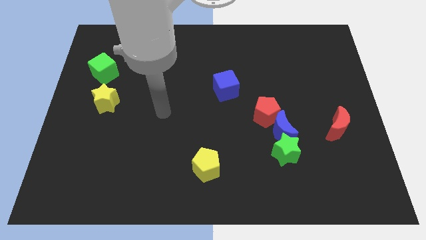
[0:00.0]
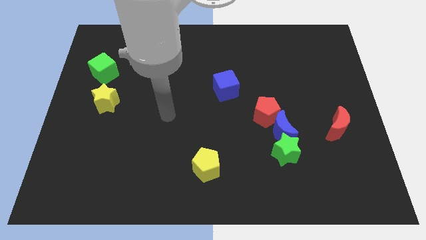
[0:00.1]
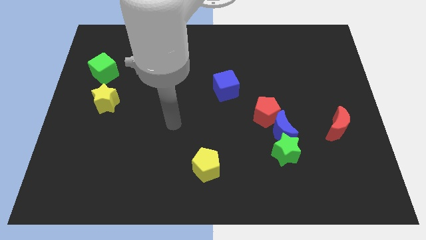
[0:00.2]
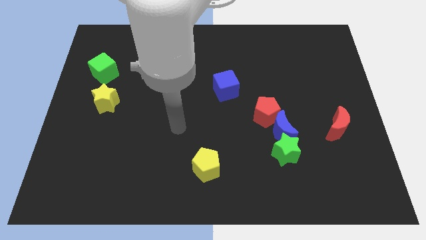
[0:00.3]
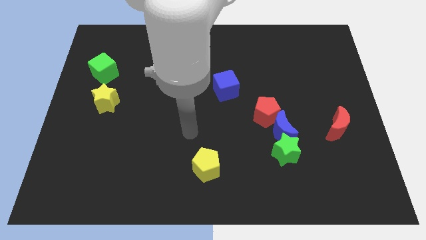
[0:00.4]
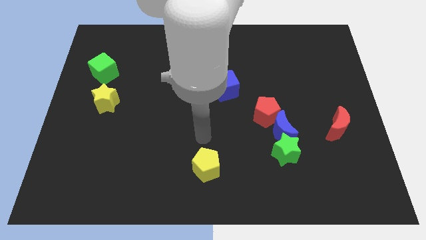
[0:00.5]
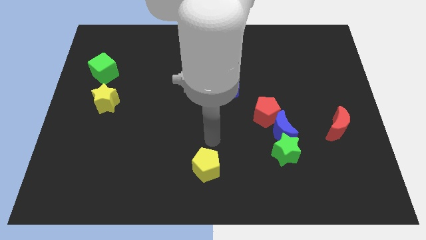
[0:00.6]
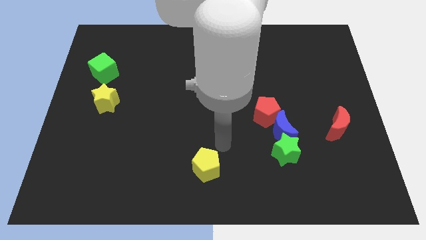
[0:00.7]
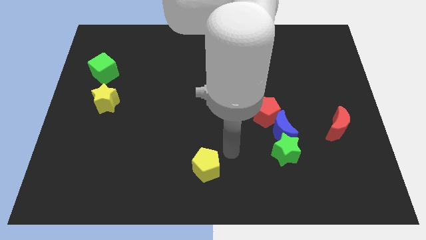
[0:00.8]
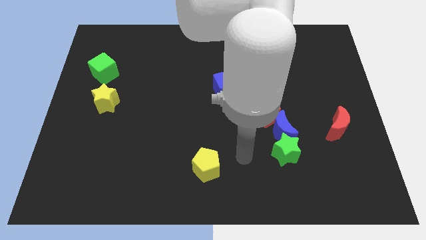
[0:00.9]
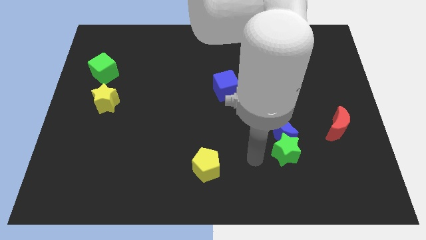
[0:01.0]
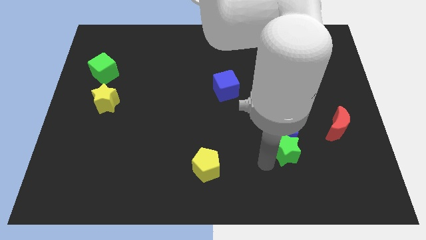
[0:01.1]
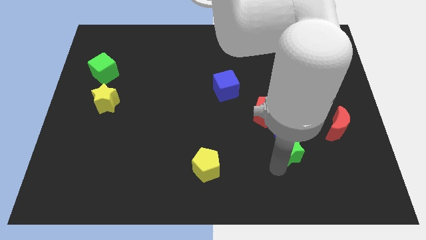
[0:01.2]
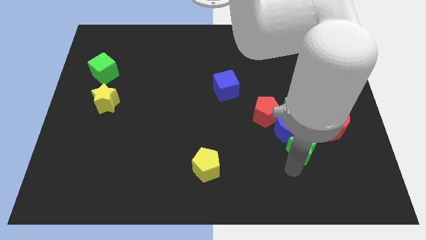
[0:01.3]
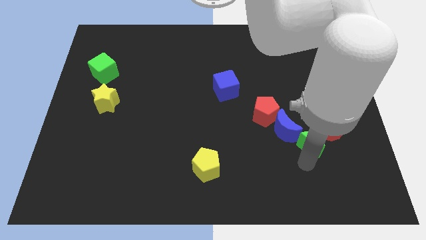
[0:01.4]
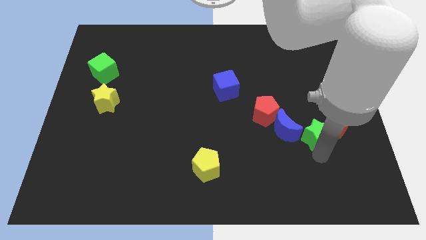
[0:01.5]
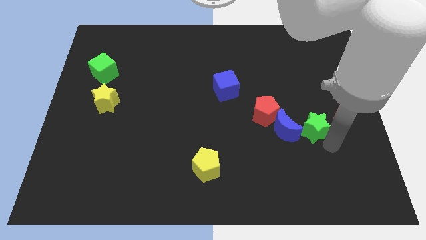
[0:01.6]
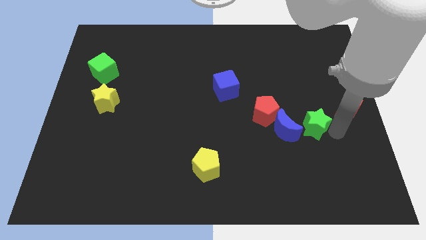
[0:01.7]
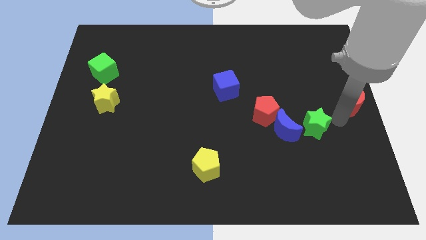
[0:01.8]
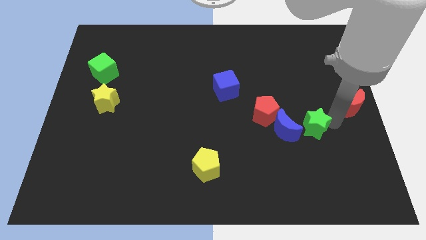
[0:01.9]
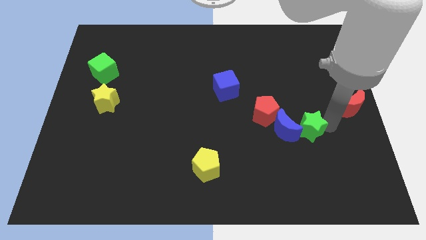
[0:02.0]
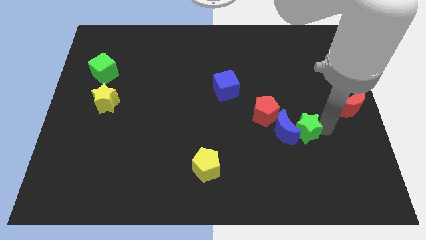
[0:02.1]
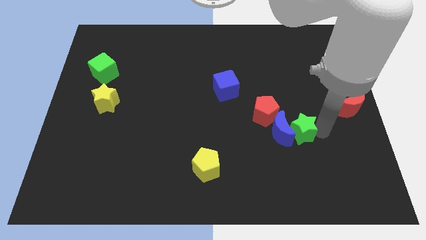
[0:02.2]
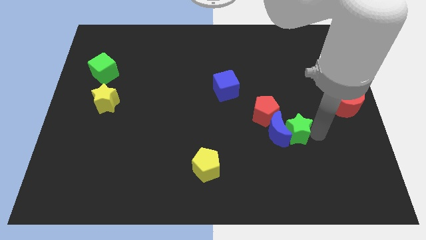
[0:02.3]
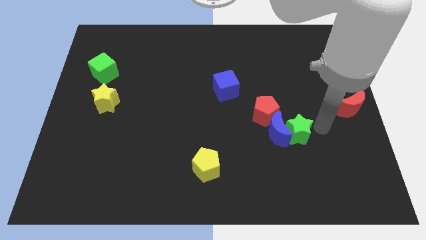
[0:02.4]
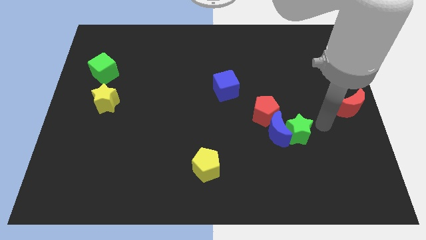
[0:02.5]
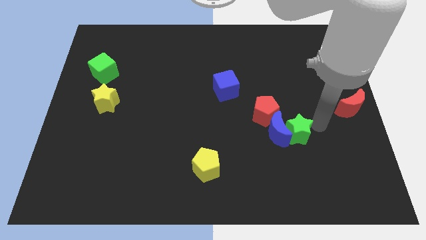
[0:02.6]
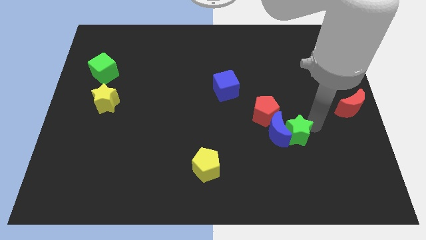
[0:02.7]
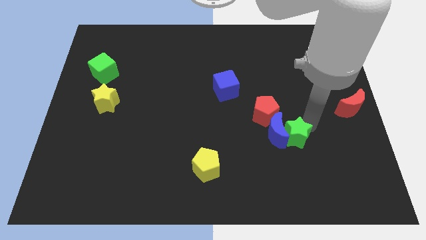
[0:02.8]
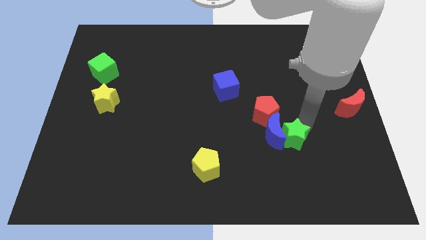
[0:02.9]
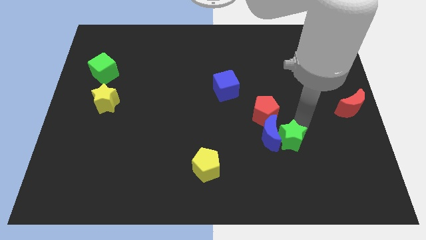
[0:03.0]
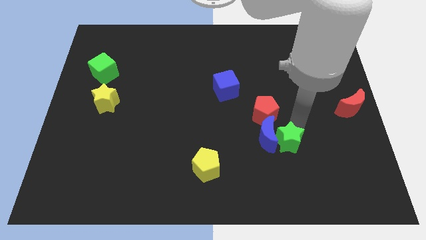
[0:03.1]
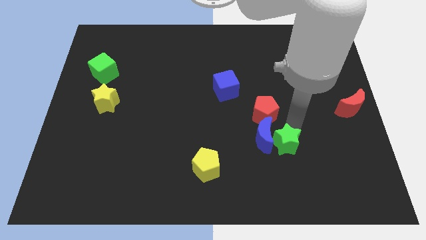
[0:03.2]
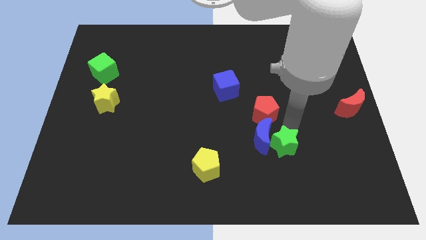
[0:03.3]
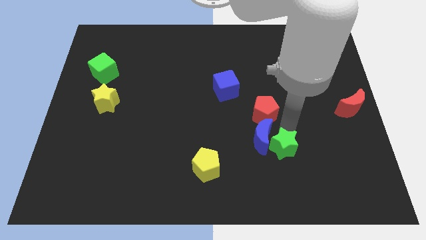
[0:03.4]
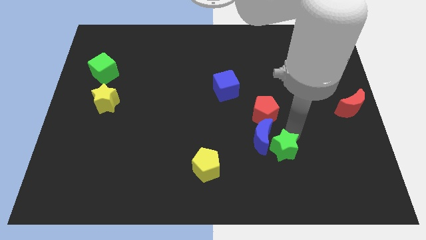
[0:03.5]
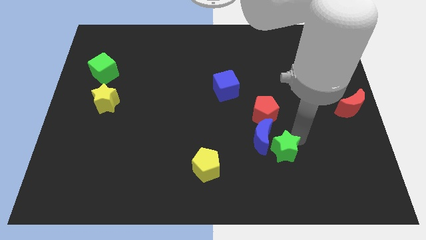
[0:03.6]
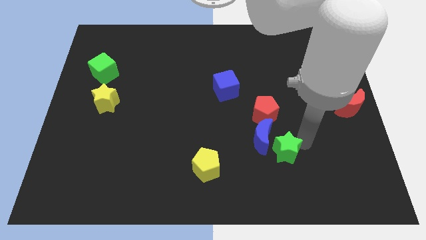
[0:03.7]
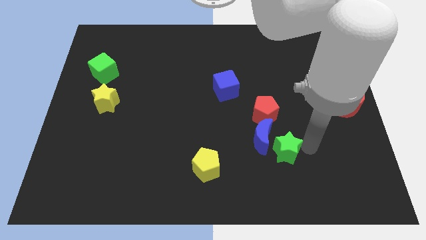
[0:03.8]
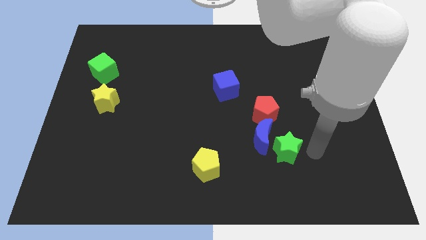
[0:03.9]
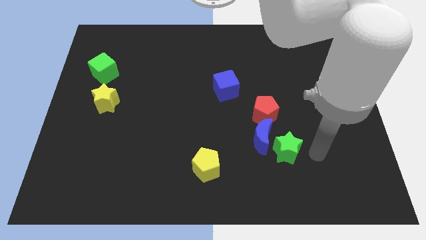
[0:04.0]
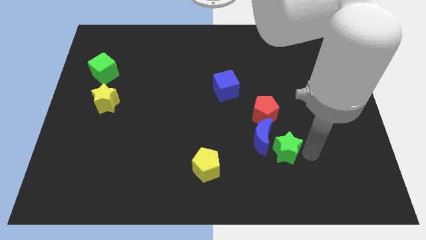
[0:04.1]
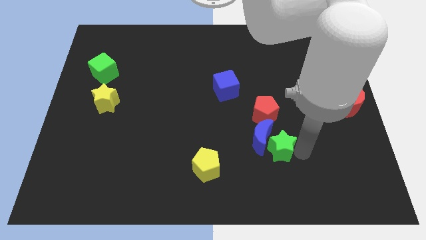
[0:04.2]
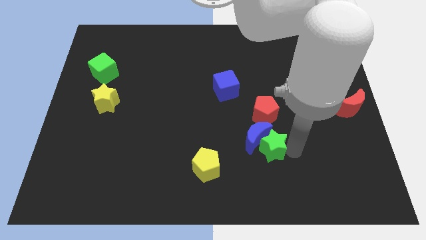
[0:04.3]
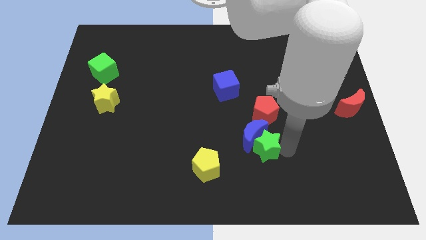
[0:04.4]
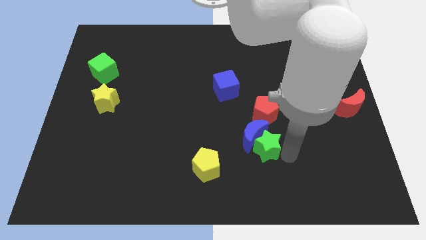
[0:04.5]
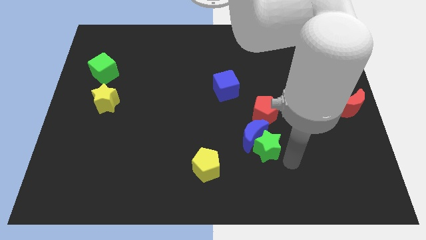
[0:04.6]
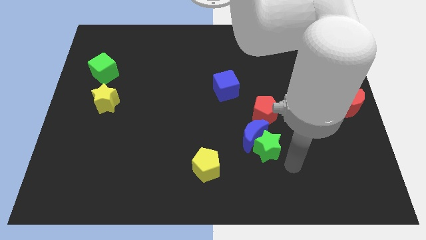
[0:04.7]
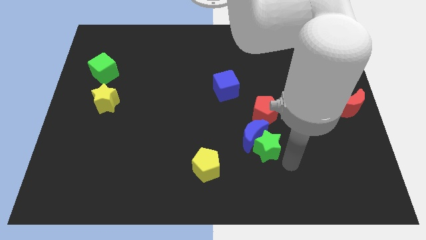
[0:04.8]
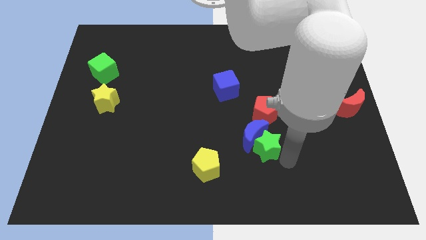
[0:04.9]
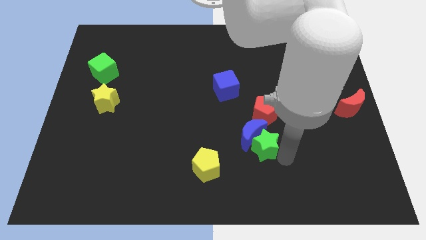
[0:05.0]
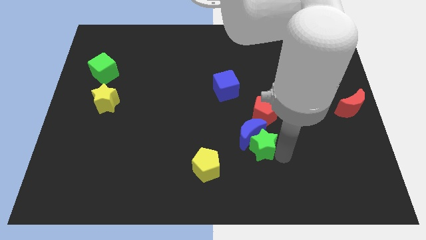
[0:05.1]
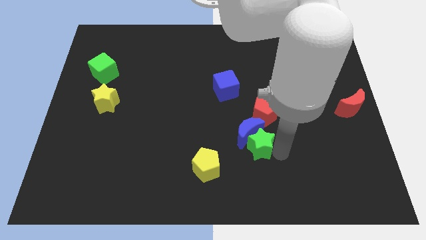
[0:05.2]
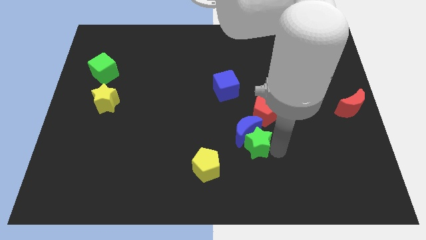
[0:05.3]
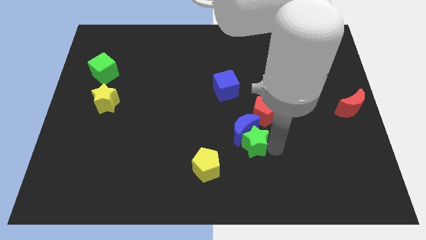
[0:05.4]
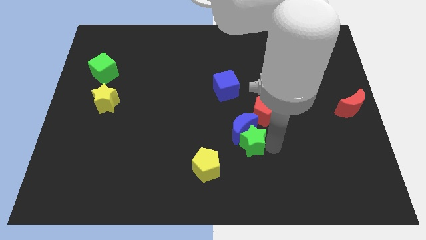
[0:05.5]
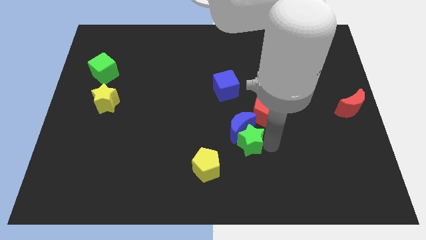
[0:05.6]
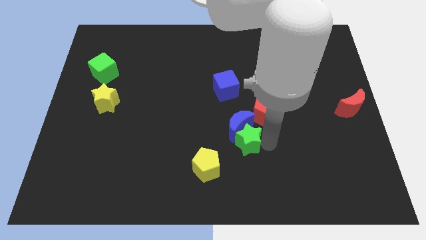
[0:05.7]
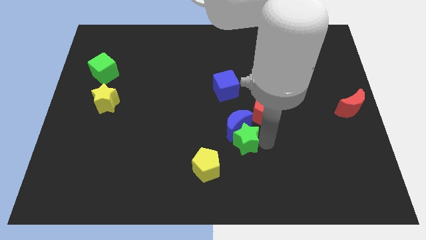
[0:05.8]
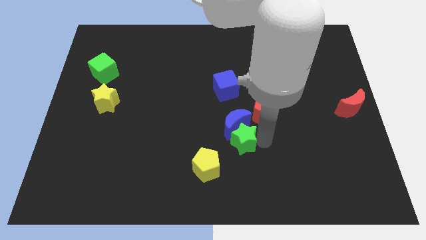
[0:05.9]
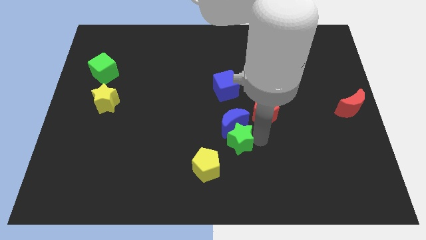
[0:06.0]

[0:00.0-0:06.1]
push the green star to the middle of the board

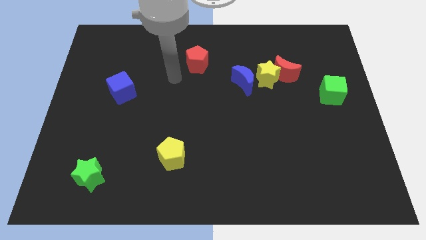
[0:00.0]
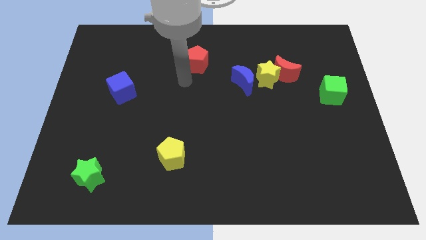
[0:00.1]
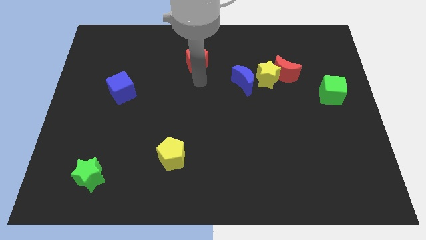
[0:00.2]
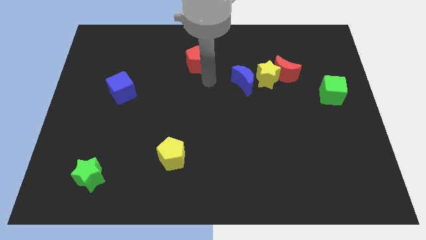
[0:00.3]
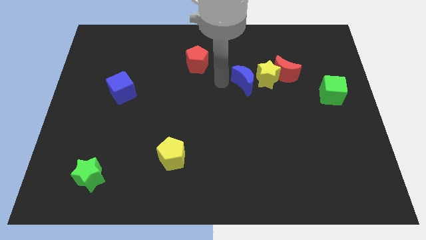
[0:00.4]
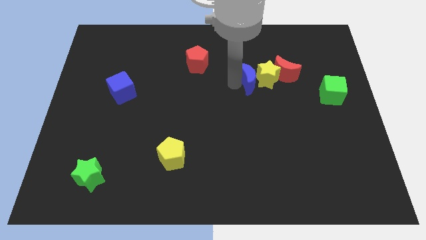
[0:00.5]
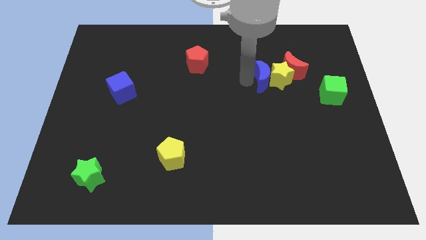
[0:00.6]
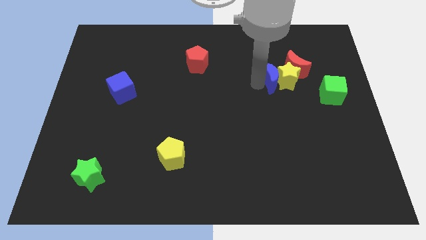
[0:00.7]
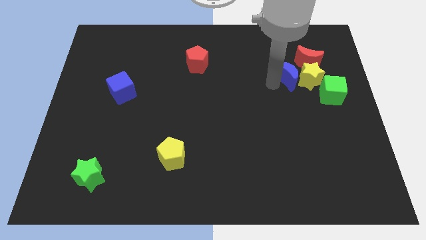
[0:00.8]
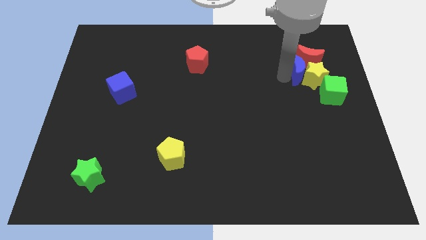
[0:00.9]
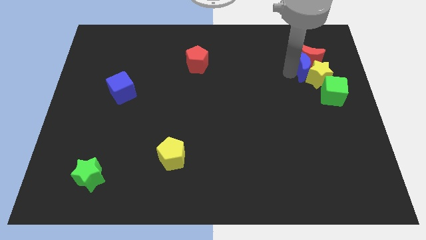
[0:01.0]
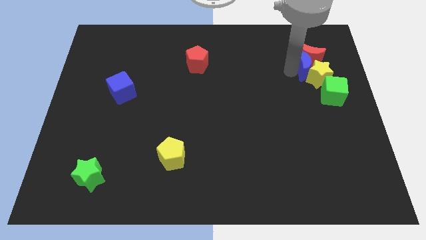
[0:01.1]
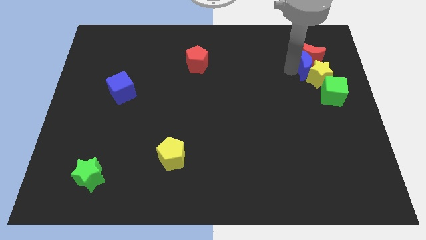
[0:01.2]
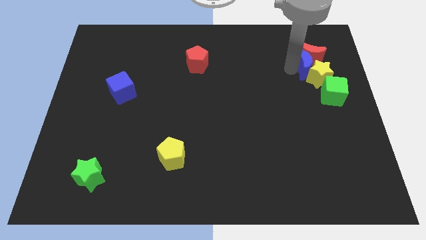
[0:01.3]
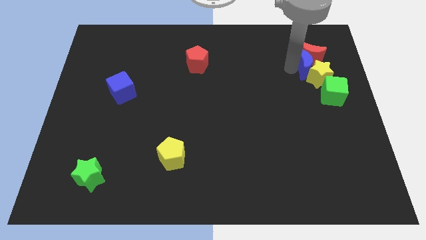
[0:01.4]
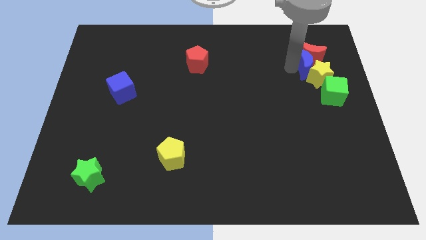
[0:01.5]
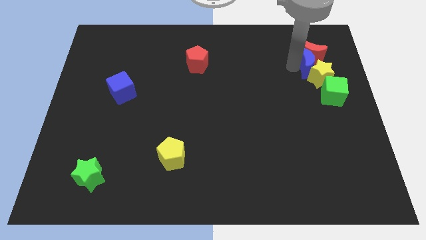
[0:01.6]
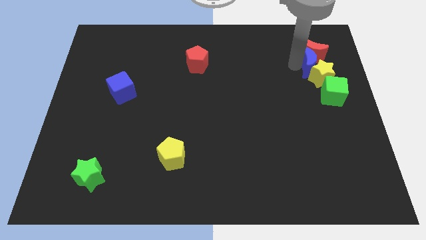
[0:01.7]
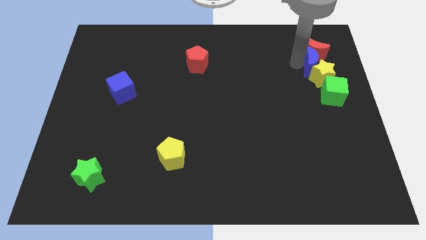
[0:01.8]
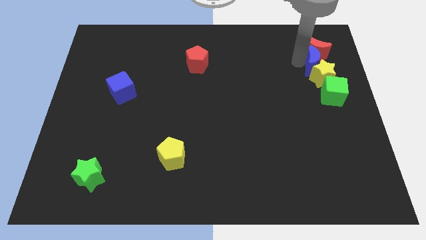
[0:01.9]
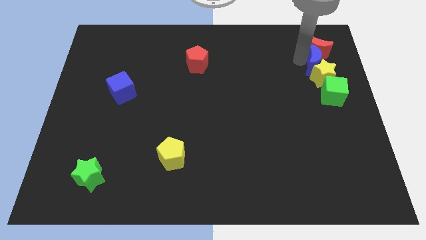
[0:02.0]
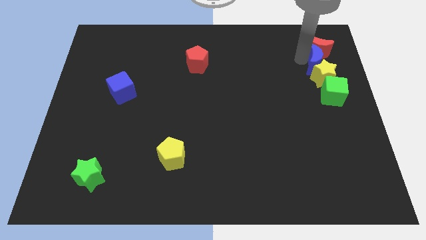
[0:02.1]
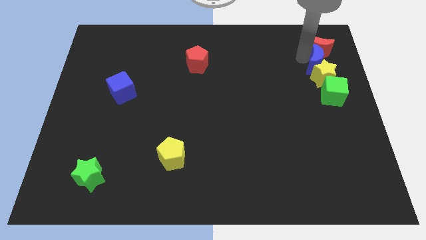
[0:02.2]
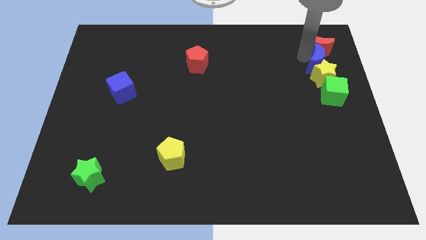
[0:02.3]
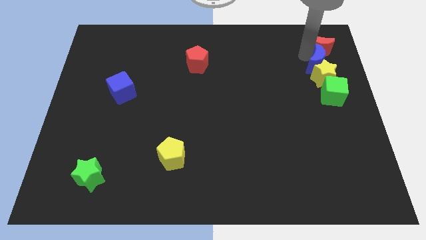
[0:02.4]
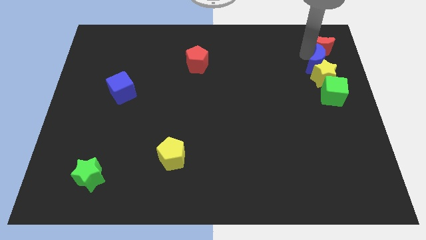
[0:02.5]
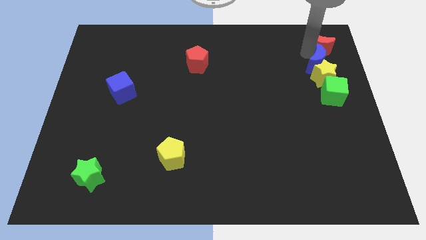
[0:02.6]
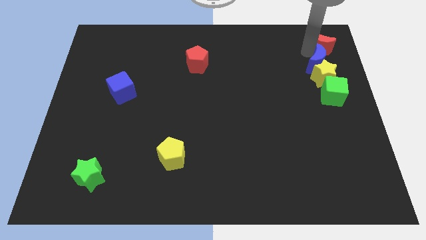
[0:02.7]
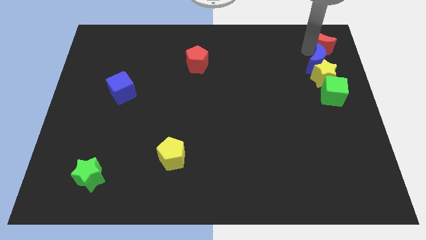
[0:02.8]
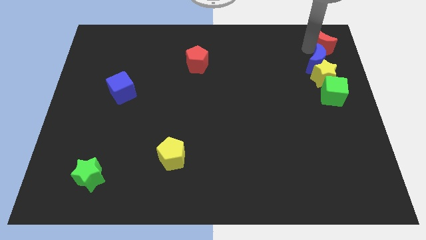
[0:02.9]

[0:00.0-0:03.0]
push the red moon to the top right of the board
